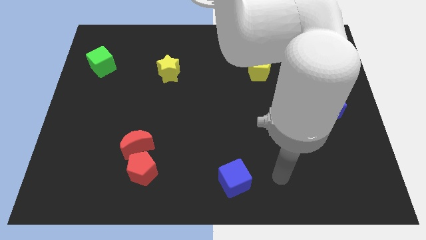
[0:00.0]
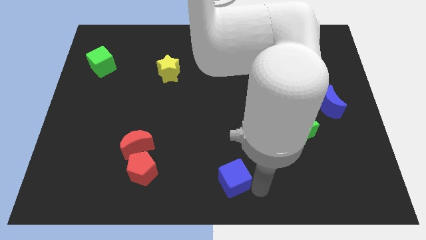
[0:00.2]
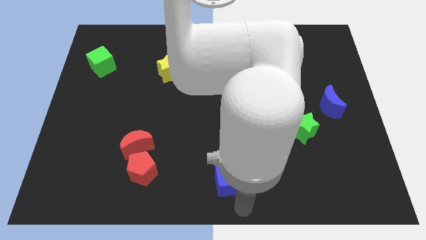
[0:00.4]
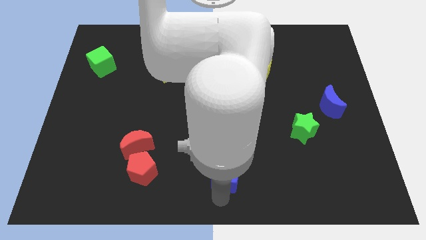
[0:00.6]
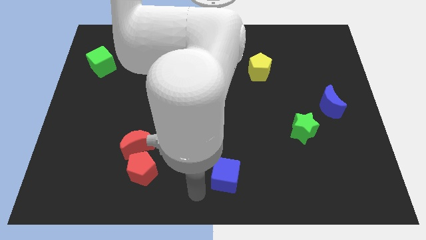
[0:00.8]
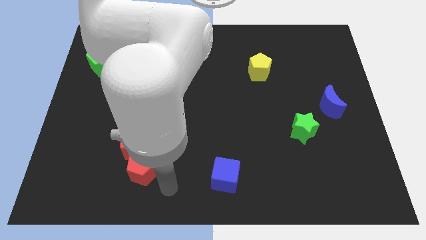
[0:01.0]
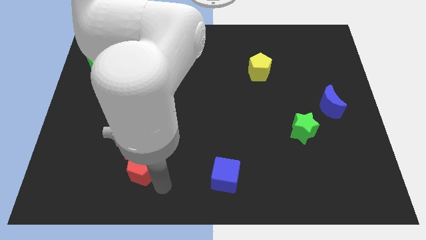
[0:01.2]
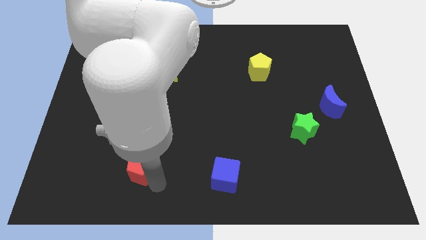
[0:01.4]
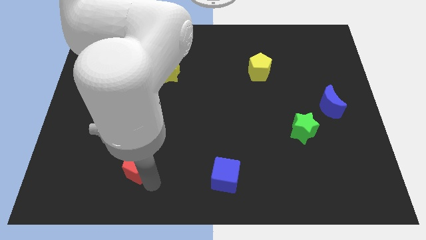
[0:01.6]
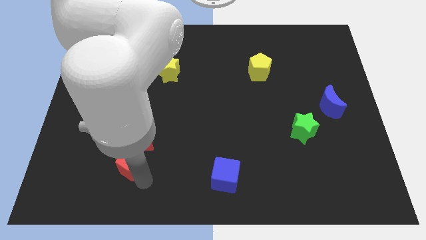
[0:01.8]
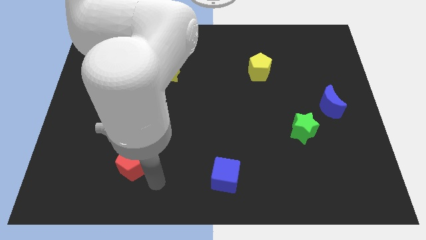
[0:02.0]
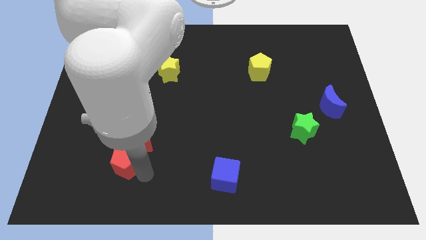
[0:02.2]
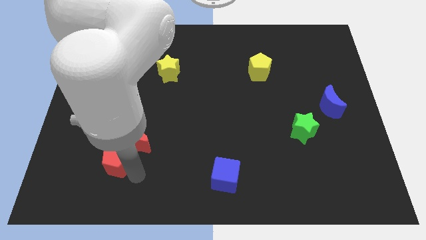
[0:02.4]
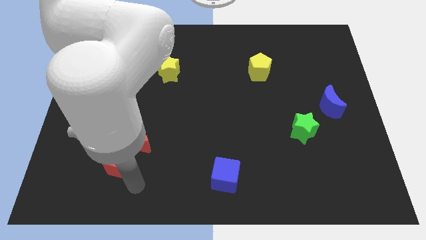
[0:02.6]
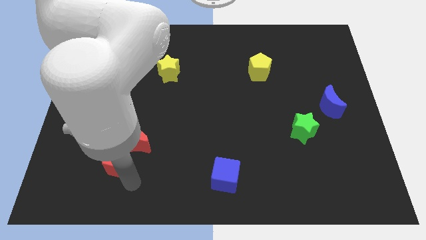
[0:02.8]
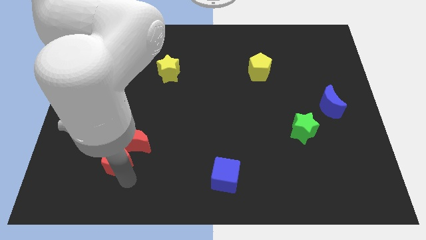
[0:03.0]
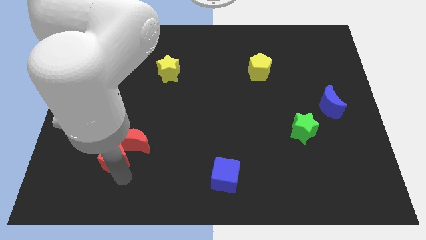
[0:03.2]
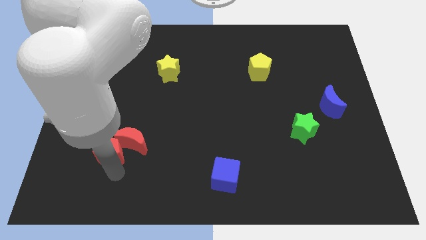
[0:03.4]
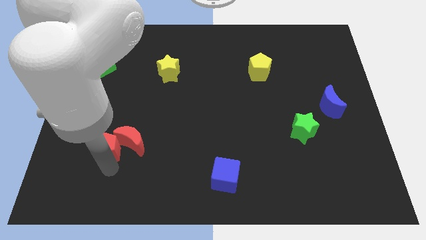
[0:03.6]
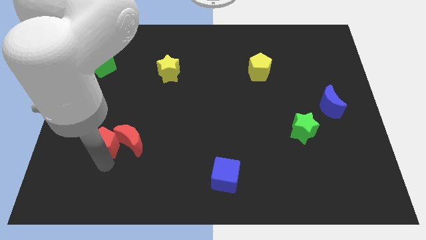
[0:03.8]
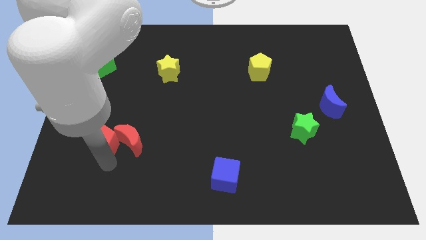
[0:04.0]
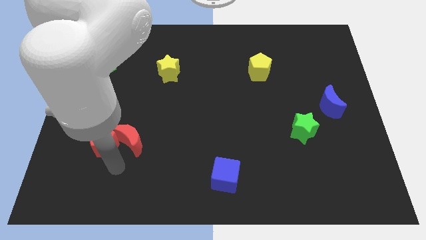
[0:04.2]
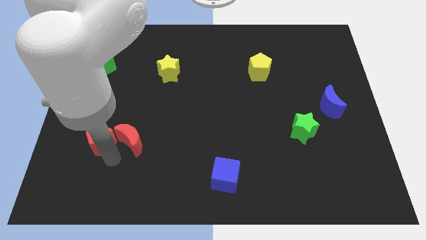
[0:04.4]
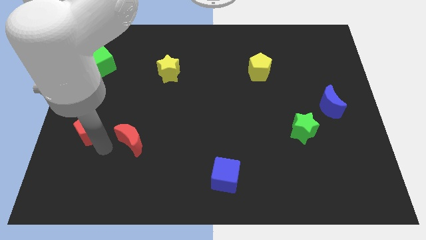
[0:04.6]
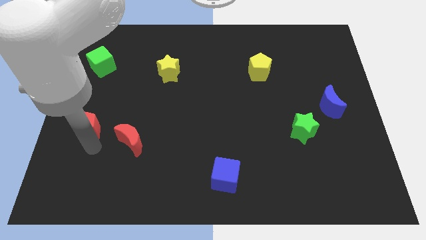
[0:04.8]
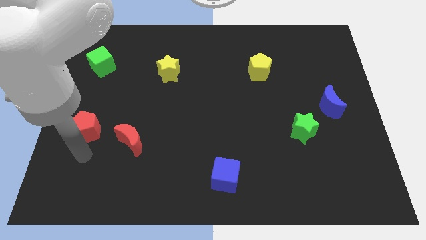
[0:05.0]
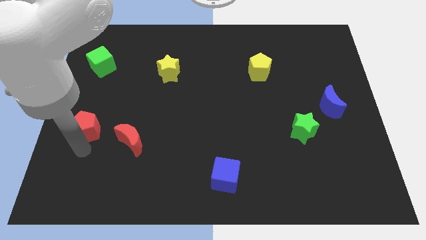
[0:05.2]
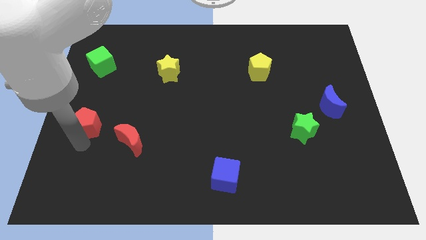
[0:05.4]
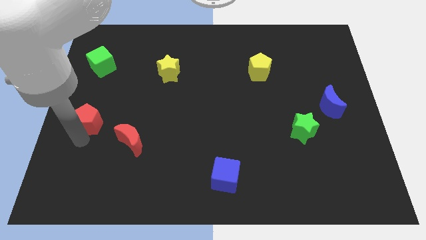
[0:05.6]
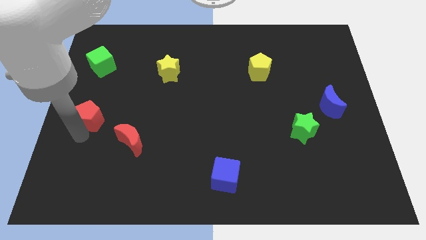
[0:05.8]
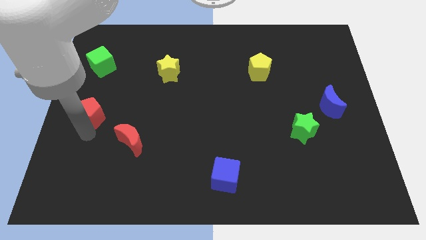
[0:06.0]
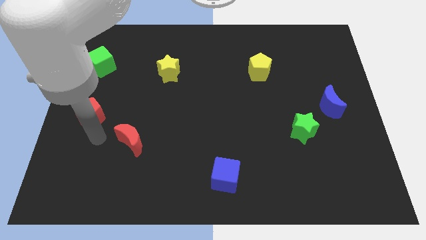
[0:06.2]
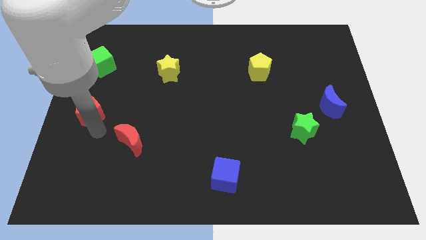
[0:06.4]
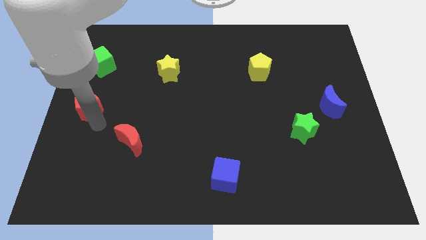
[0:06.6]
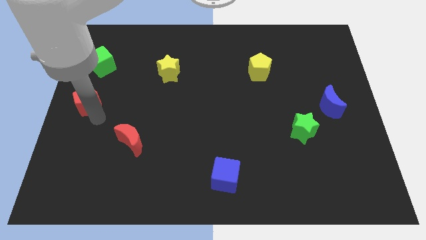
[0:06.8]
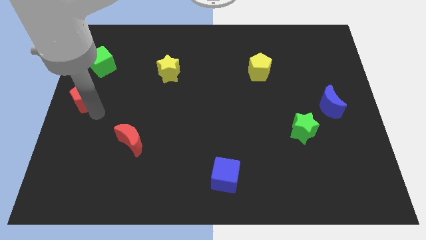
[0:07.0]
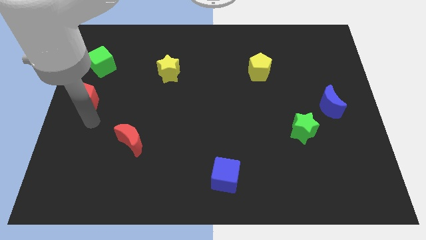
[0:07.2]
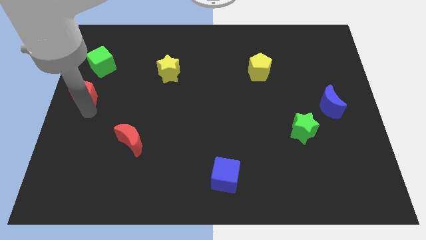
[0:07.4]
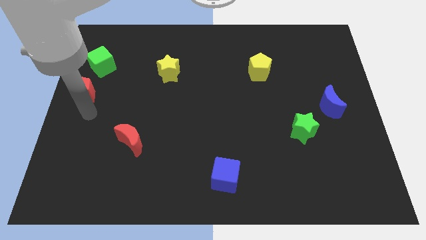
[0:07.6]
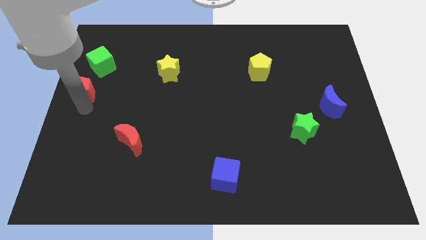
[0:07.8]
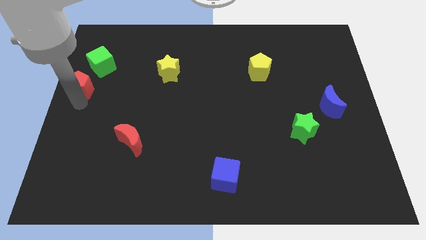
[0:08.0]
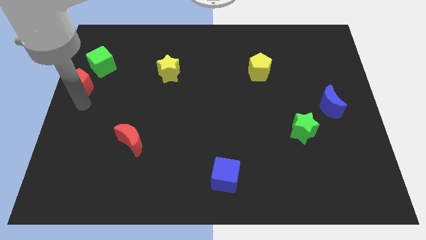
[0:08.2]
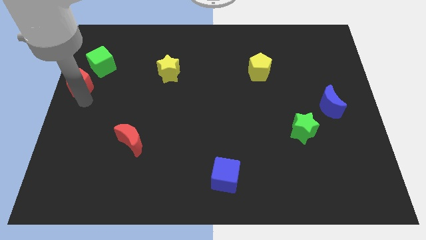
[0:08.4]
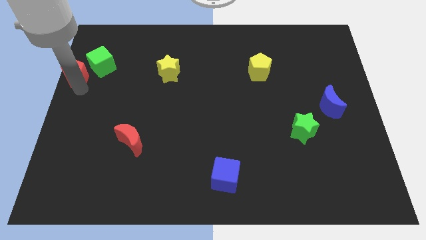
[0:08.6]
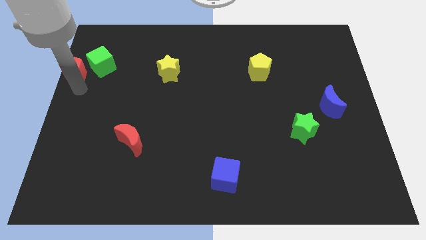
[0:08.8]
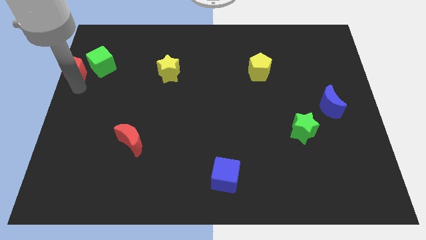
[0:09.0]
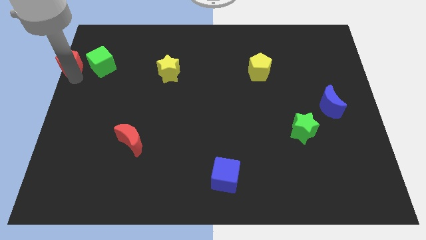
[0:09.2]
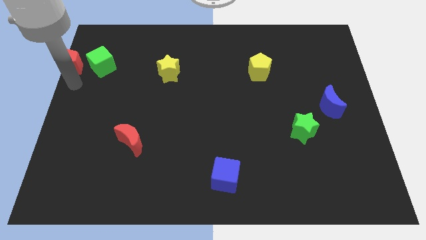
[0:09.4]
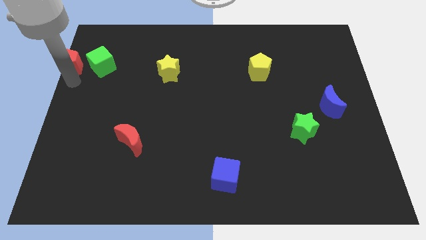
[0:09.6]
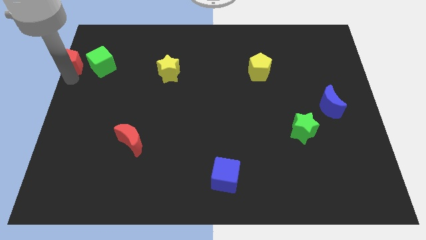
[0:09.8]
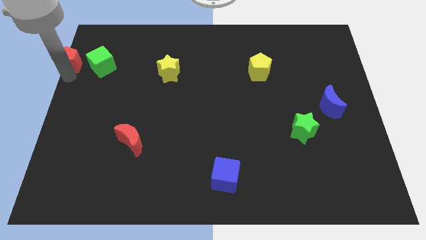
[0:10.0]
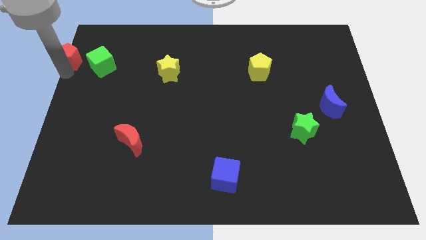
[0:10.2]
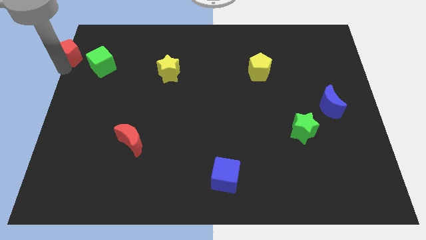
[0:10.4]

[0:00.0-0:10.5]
push the red pentagon to the upper left corner

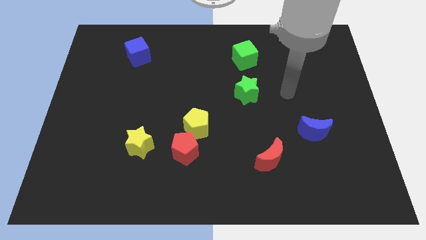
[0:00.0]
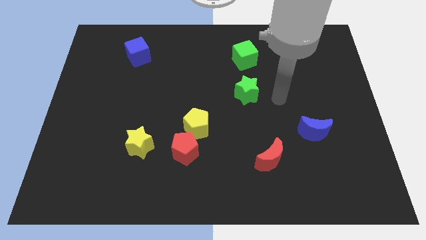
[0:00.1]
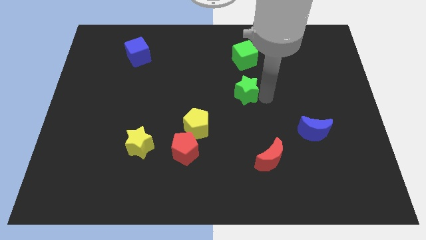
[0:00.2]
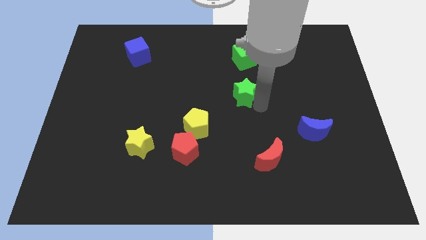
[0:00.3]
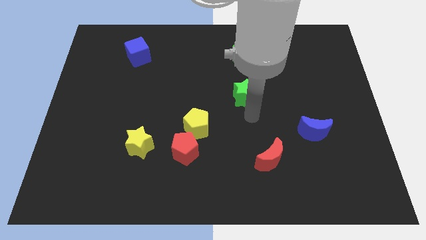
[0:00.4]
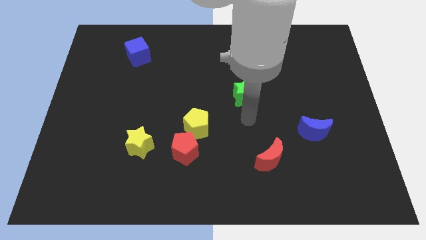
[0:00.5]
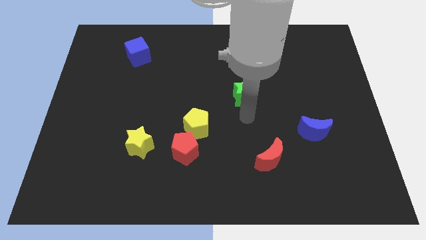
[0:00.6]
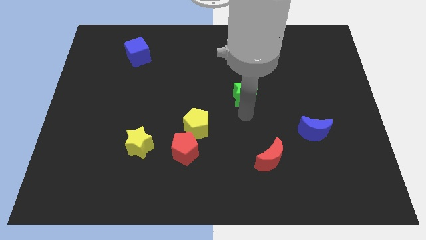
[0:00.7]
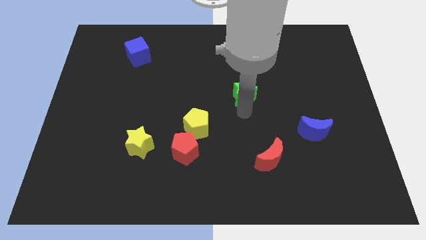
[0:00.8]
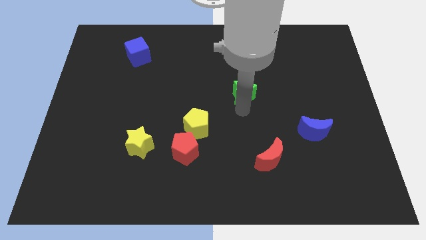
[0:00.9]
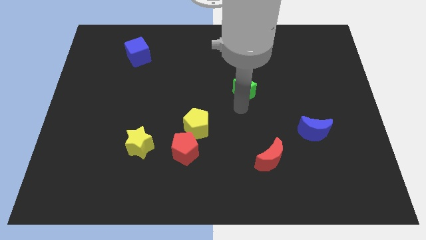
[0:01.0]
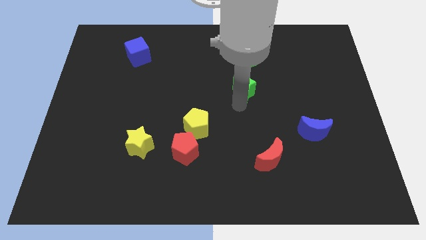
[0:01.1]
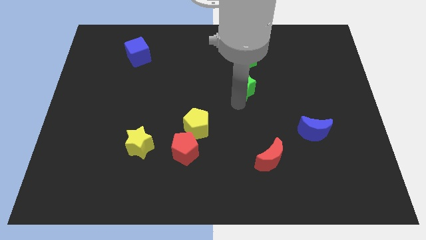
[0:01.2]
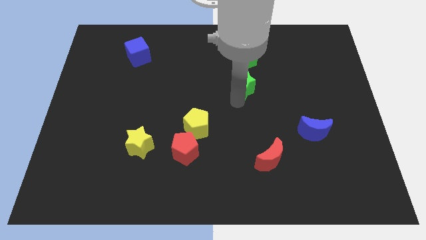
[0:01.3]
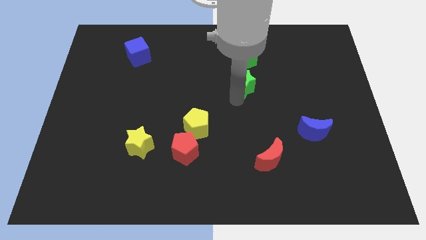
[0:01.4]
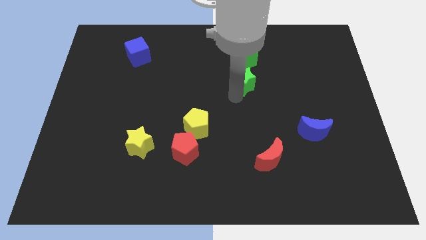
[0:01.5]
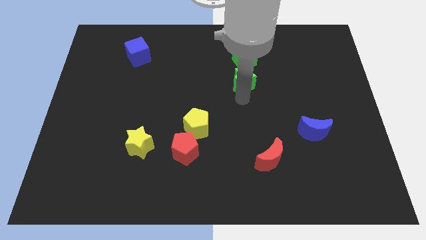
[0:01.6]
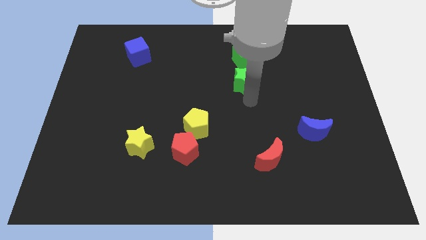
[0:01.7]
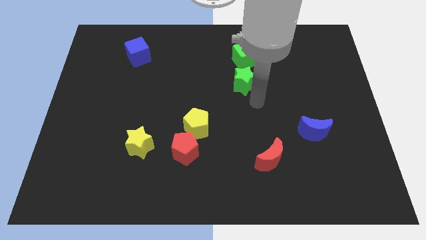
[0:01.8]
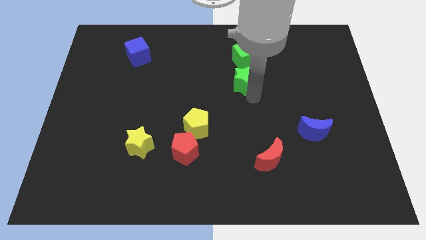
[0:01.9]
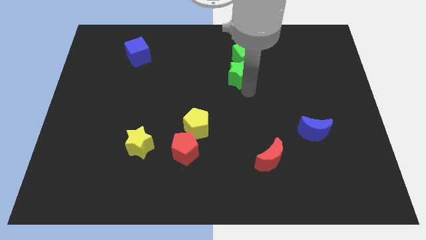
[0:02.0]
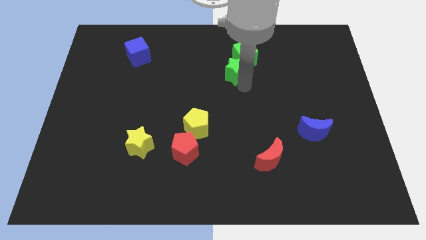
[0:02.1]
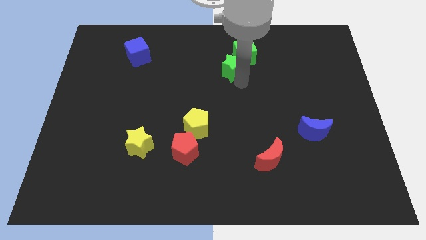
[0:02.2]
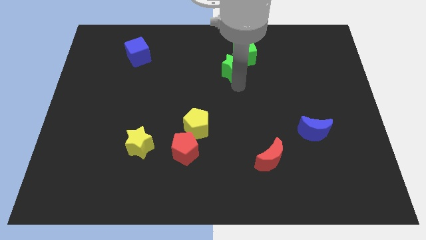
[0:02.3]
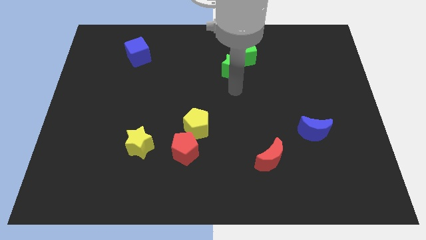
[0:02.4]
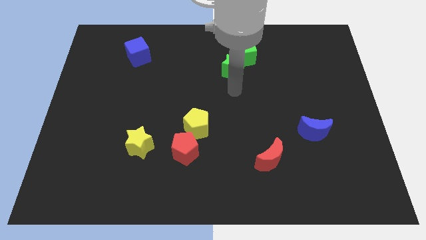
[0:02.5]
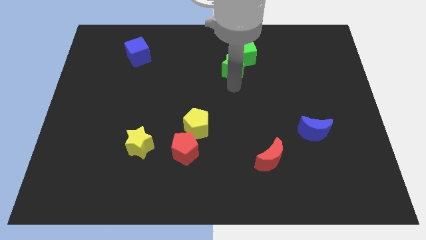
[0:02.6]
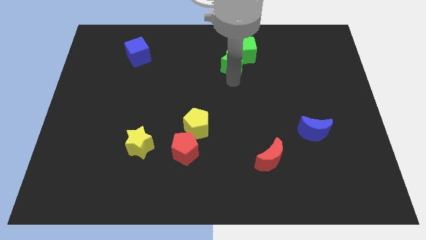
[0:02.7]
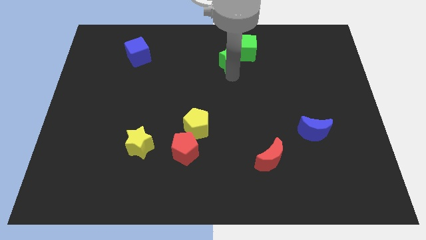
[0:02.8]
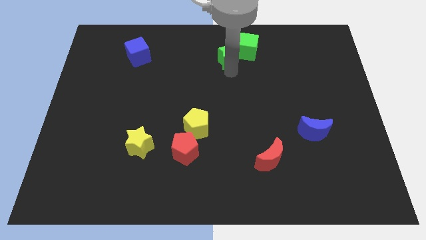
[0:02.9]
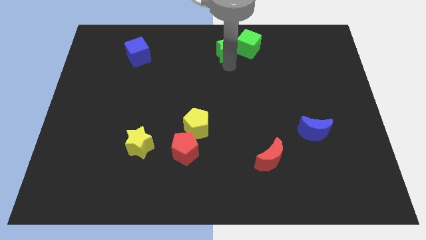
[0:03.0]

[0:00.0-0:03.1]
push the green star to the towards your base
